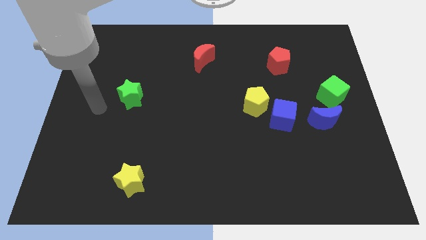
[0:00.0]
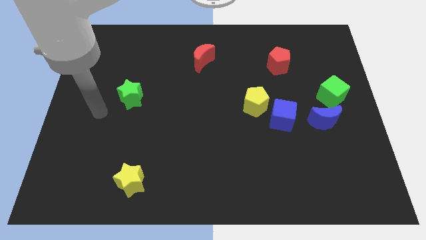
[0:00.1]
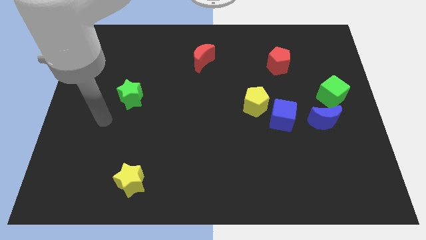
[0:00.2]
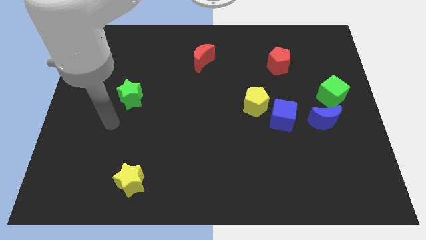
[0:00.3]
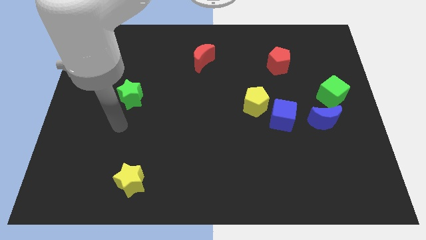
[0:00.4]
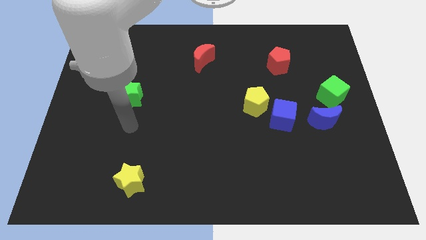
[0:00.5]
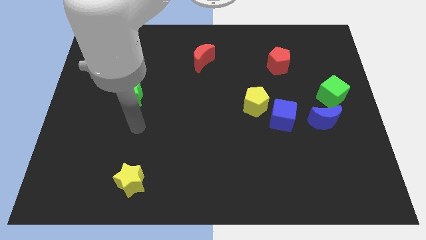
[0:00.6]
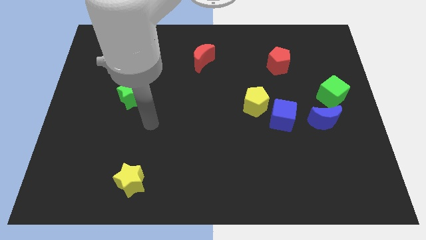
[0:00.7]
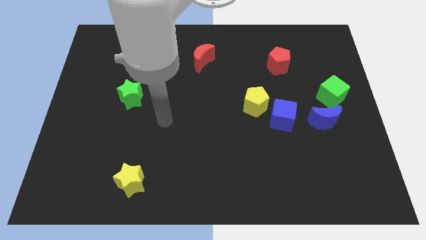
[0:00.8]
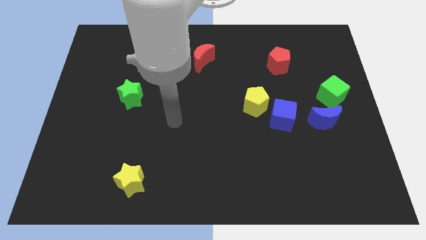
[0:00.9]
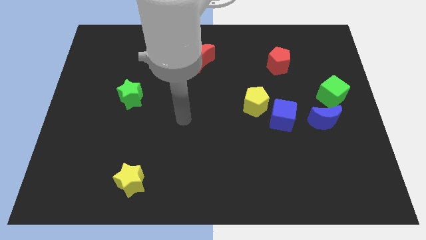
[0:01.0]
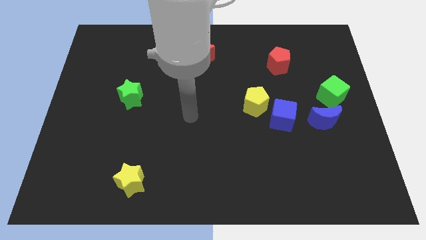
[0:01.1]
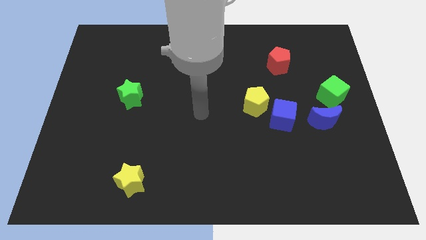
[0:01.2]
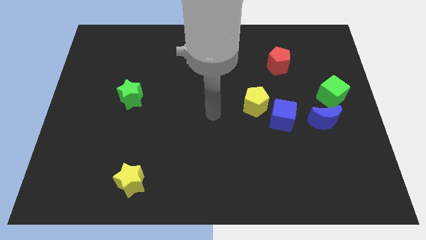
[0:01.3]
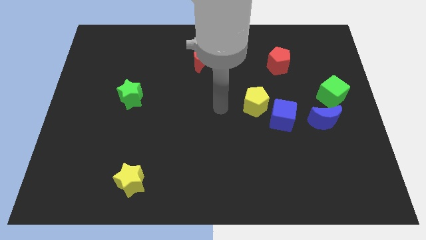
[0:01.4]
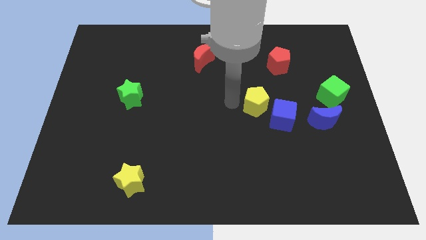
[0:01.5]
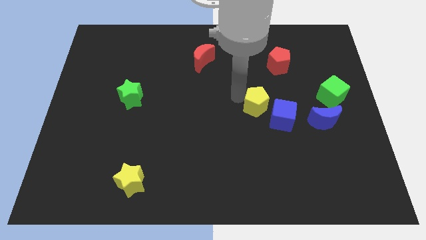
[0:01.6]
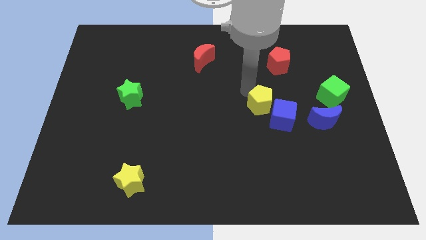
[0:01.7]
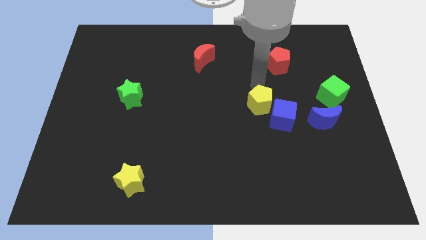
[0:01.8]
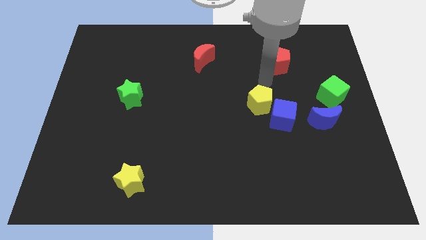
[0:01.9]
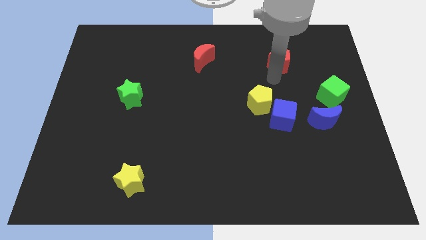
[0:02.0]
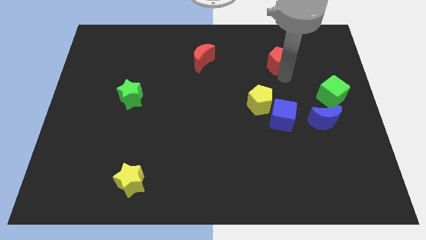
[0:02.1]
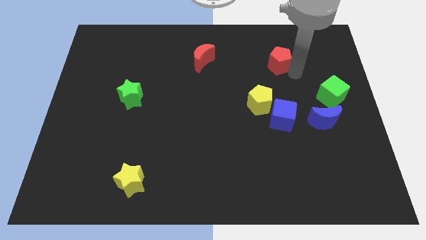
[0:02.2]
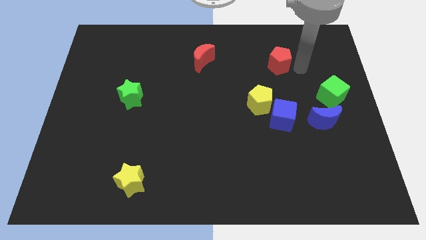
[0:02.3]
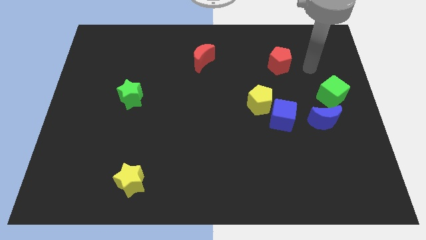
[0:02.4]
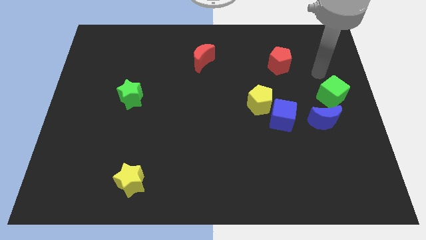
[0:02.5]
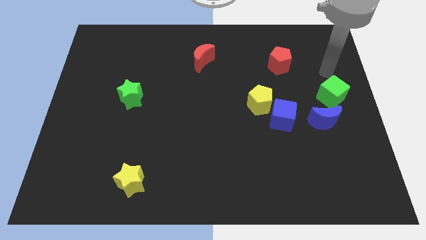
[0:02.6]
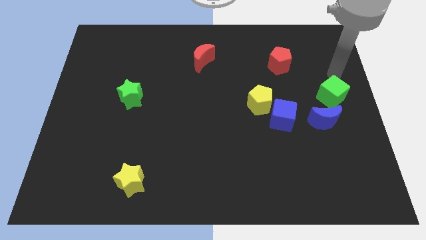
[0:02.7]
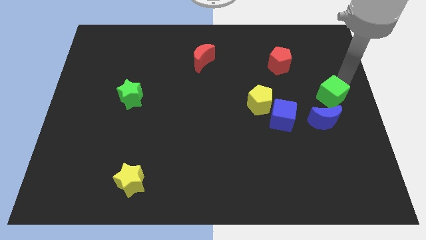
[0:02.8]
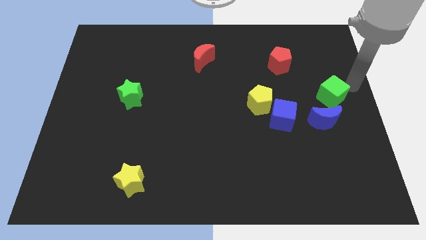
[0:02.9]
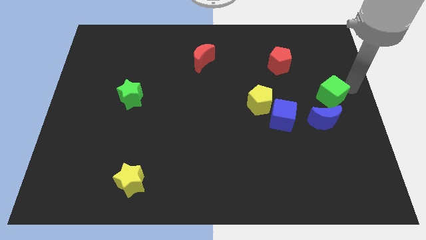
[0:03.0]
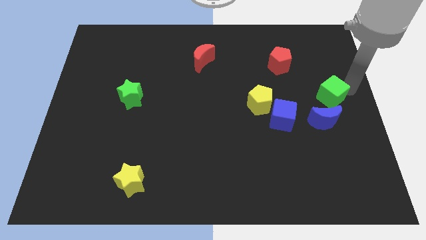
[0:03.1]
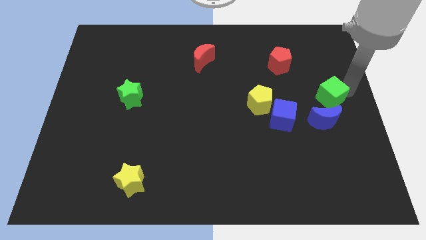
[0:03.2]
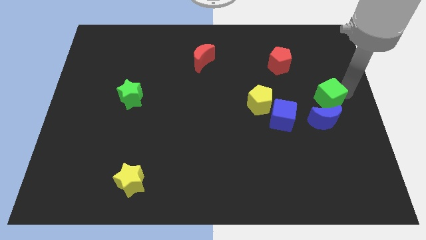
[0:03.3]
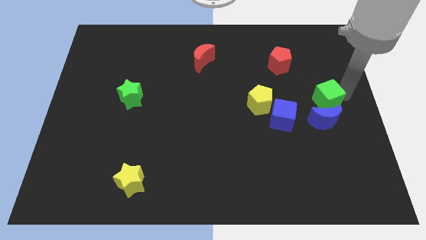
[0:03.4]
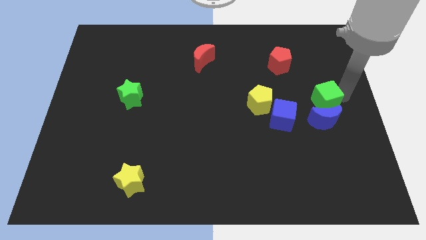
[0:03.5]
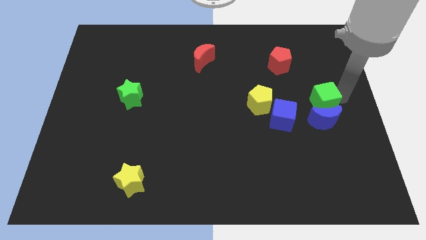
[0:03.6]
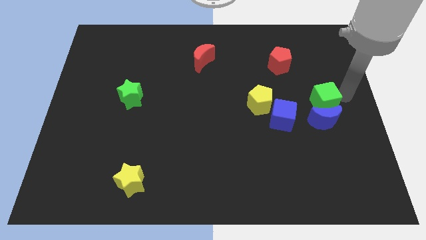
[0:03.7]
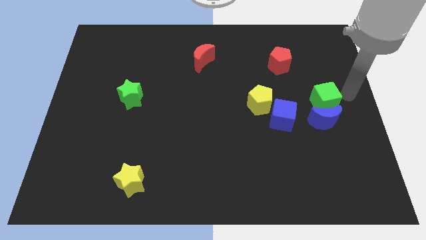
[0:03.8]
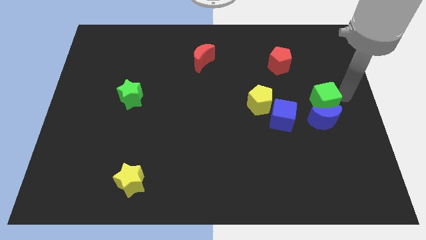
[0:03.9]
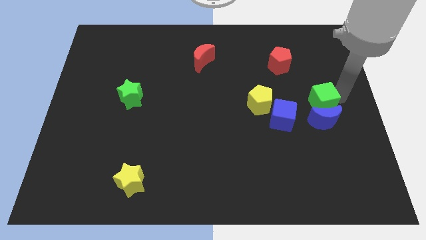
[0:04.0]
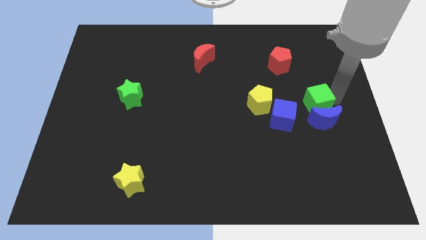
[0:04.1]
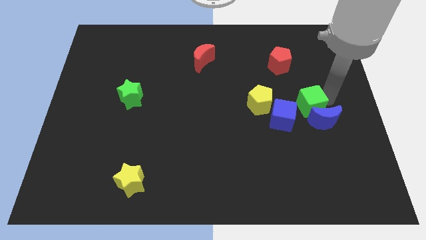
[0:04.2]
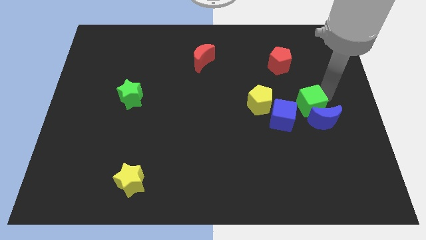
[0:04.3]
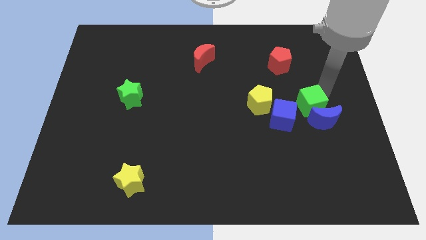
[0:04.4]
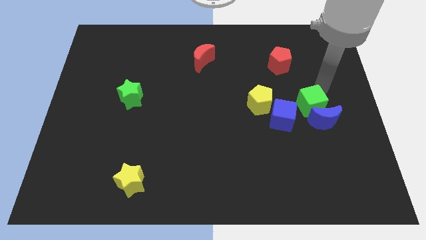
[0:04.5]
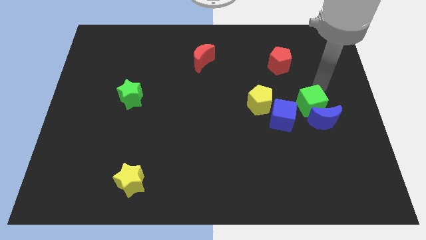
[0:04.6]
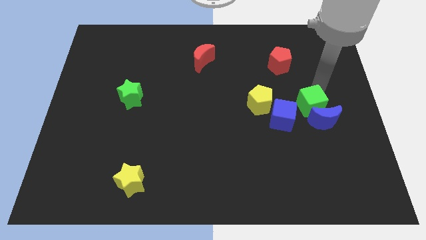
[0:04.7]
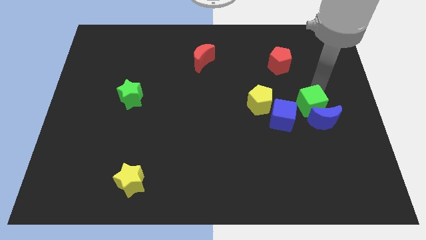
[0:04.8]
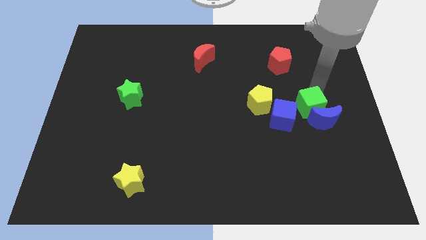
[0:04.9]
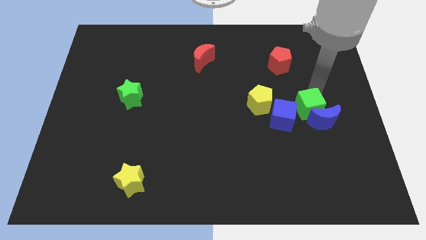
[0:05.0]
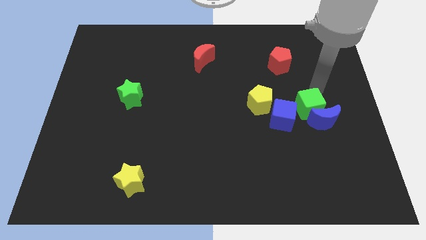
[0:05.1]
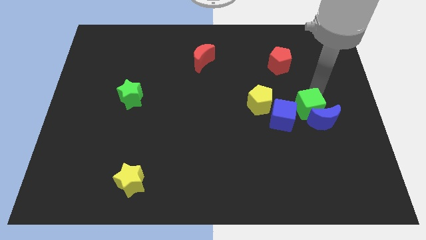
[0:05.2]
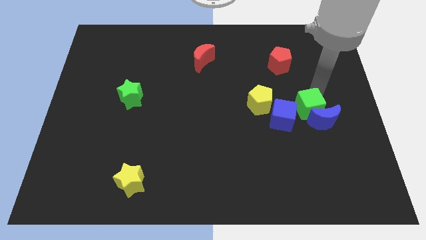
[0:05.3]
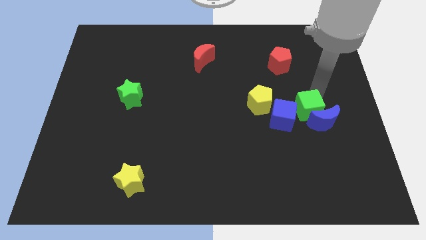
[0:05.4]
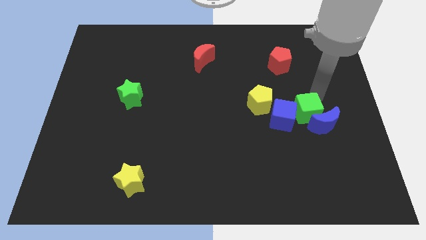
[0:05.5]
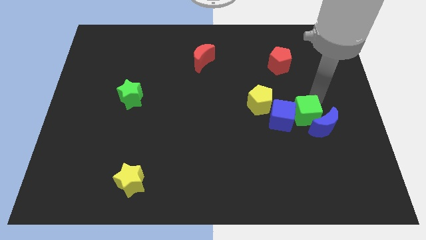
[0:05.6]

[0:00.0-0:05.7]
move the green cube to the bottom right side of the blue cube

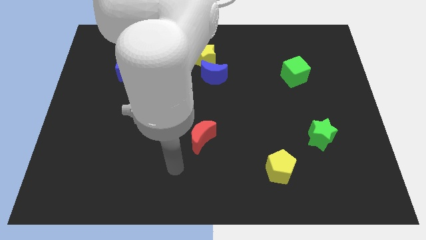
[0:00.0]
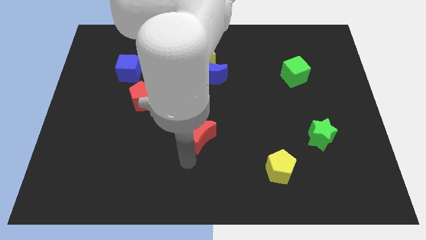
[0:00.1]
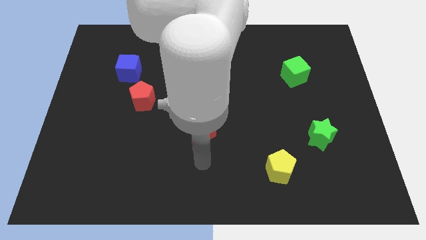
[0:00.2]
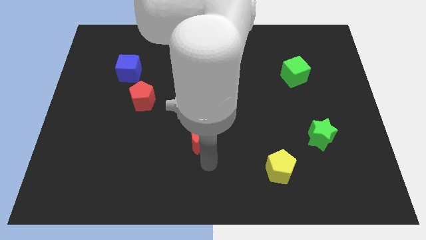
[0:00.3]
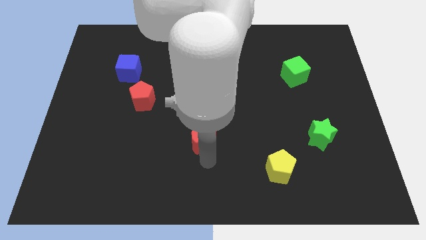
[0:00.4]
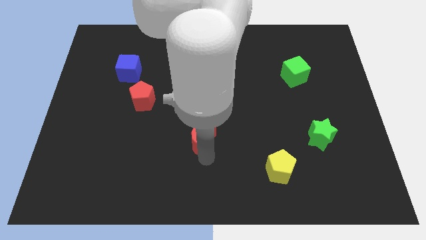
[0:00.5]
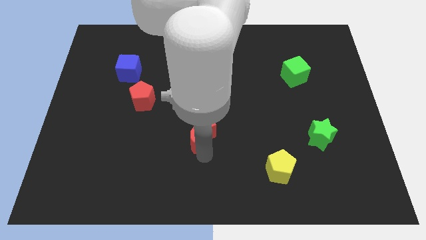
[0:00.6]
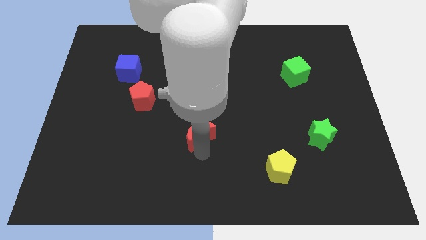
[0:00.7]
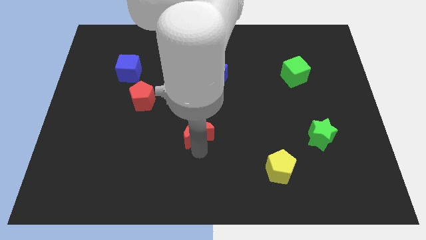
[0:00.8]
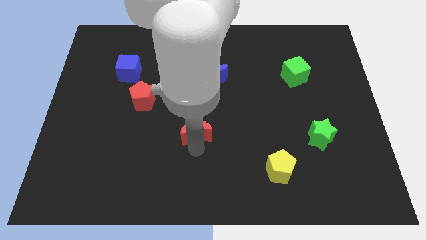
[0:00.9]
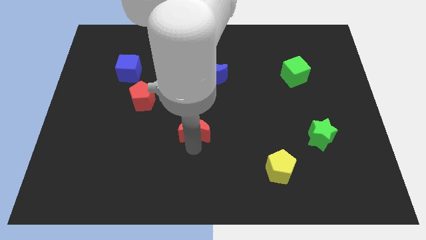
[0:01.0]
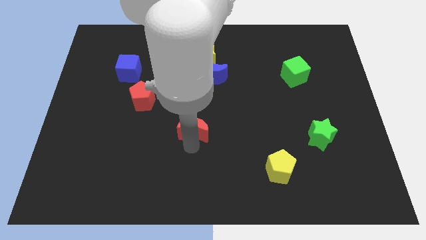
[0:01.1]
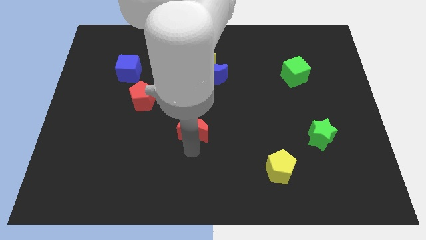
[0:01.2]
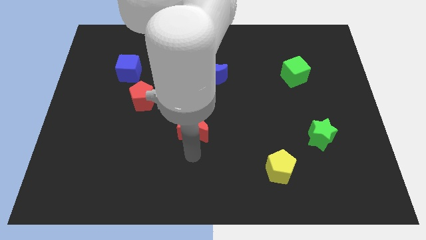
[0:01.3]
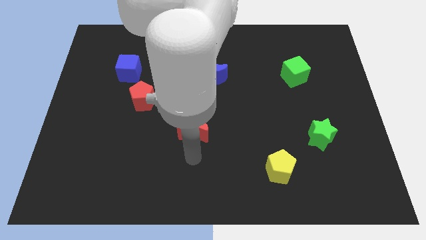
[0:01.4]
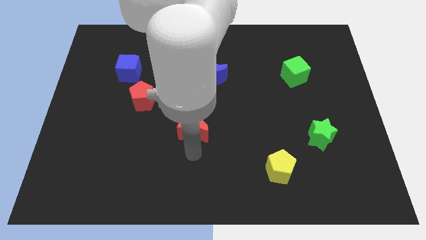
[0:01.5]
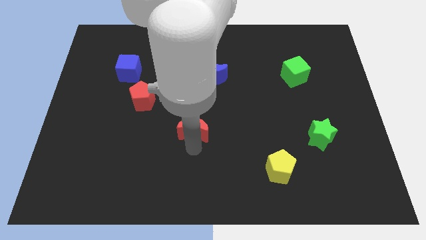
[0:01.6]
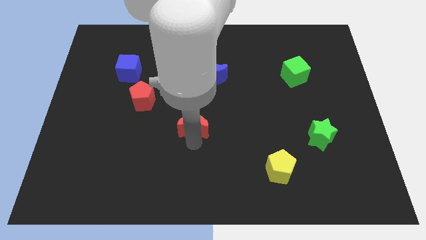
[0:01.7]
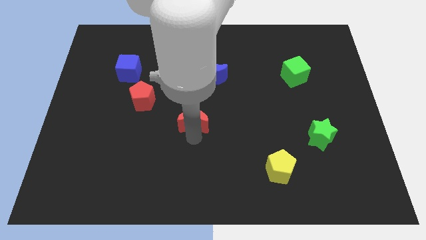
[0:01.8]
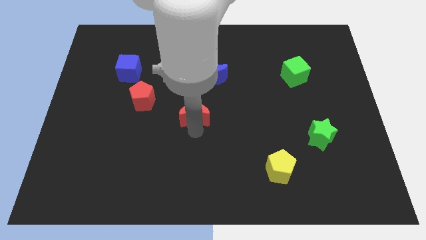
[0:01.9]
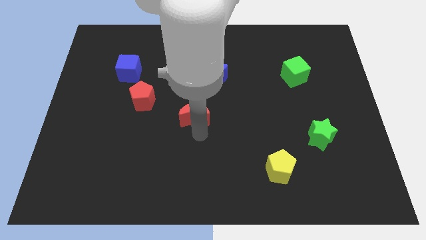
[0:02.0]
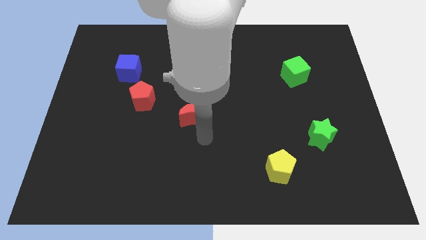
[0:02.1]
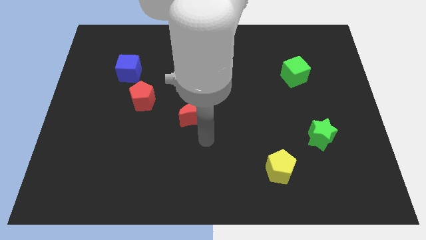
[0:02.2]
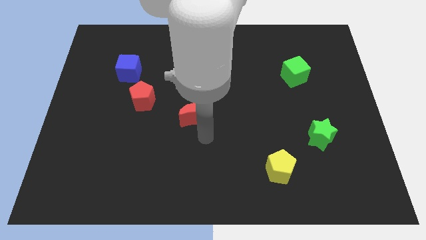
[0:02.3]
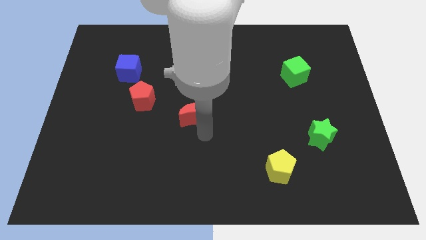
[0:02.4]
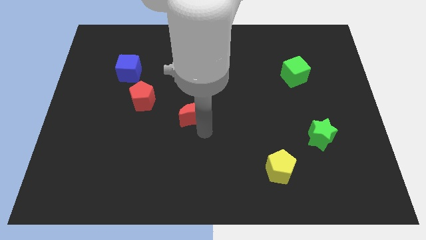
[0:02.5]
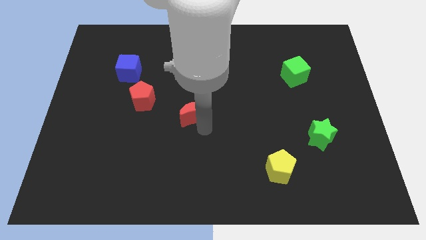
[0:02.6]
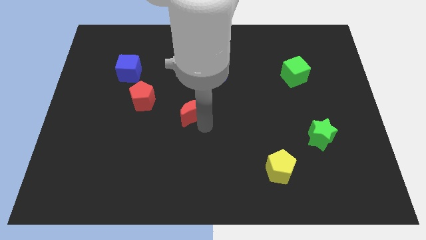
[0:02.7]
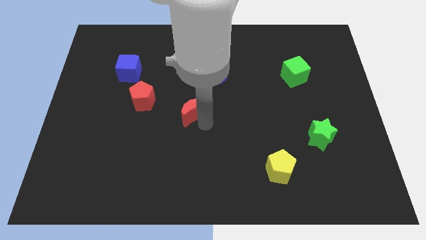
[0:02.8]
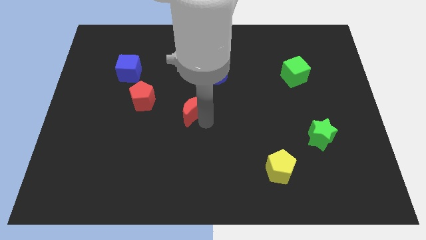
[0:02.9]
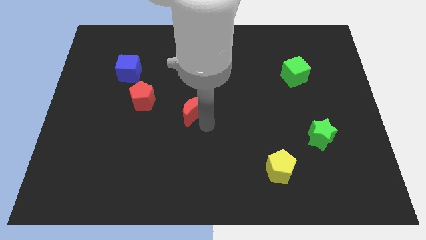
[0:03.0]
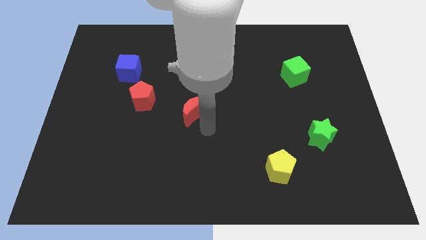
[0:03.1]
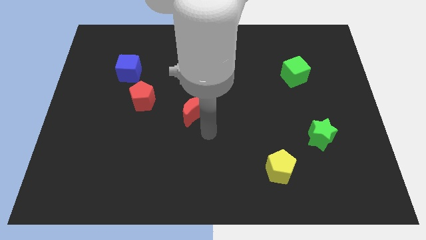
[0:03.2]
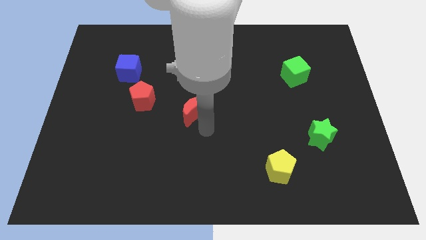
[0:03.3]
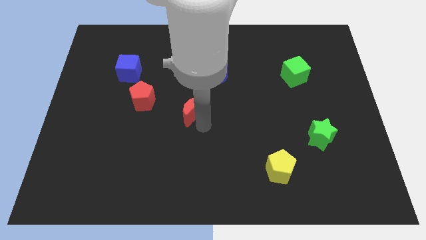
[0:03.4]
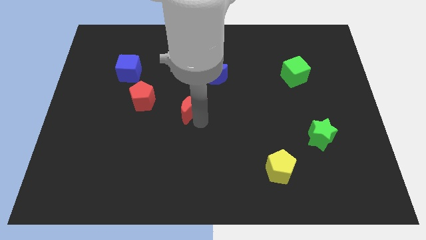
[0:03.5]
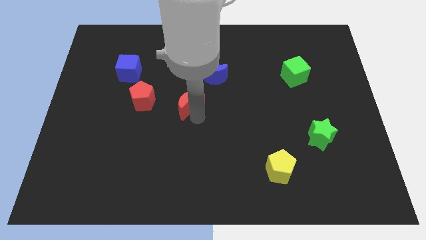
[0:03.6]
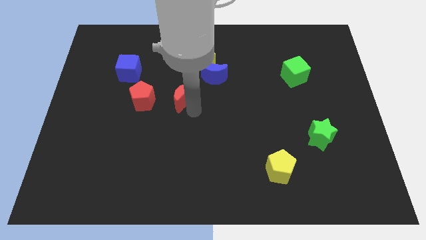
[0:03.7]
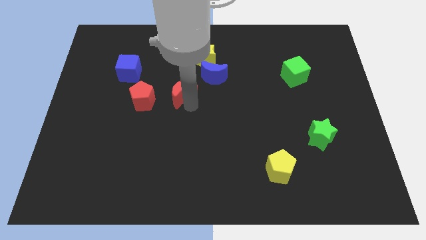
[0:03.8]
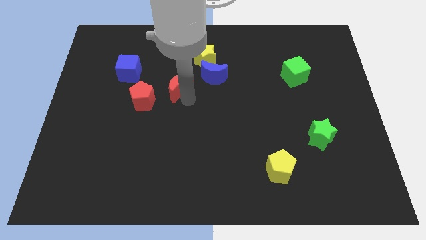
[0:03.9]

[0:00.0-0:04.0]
move the red moon to the top right side of the red pentagon
